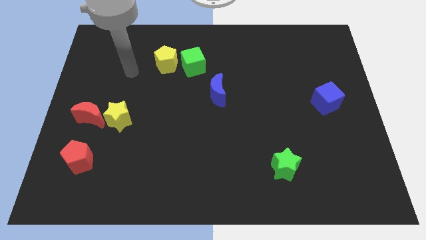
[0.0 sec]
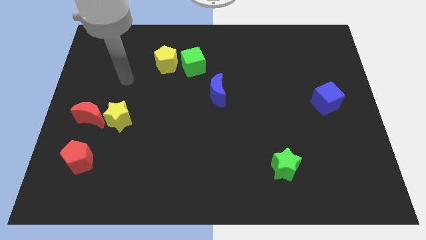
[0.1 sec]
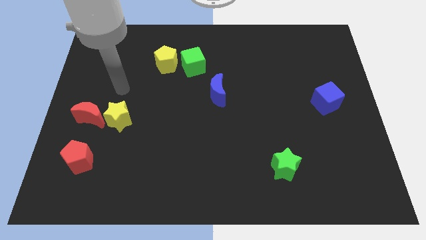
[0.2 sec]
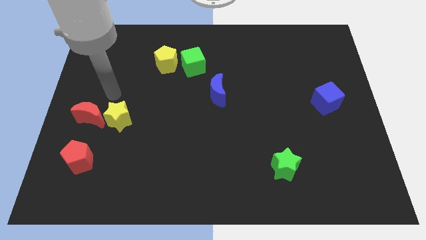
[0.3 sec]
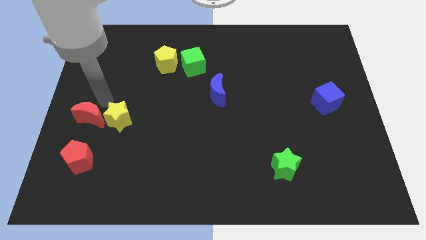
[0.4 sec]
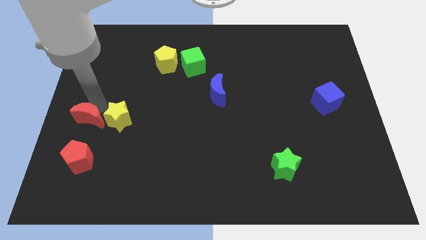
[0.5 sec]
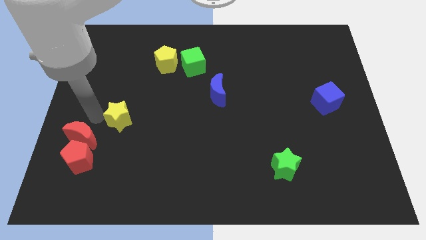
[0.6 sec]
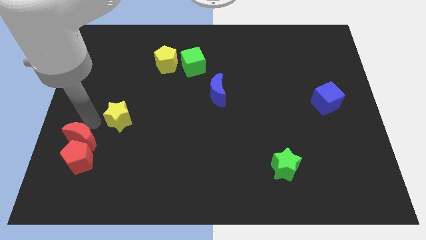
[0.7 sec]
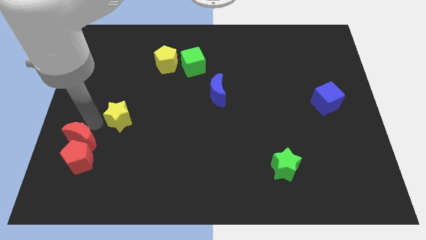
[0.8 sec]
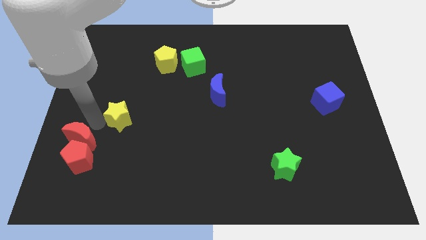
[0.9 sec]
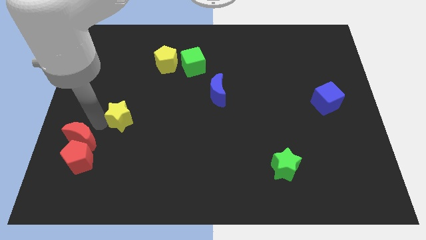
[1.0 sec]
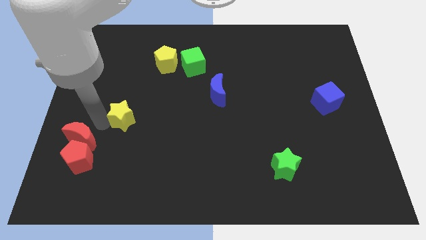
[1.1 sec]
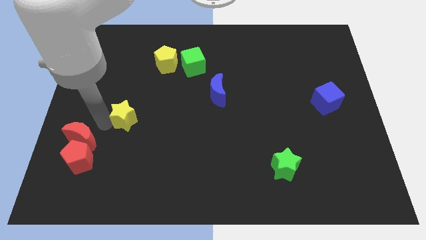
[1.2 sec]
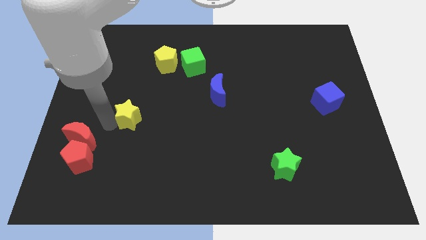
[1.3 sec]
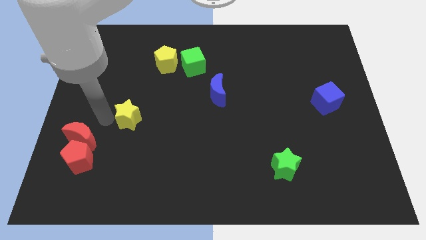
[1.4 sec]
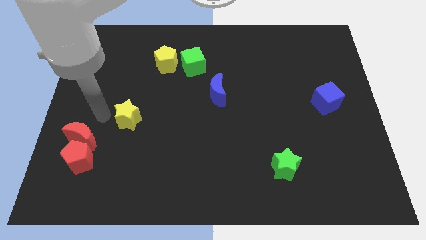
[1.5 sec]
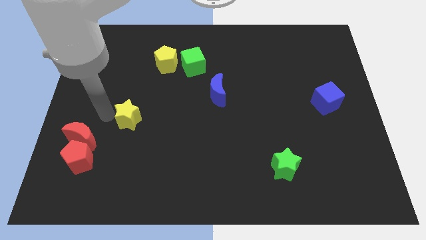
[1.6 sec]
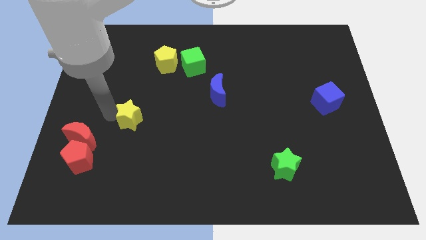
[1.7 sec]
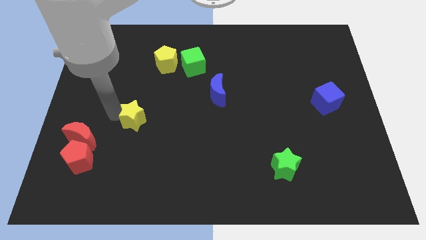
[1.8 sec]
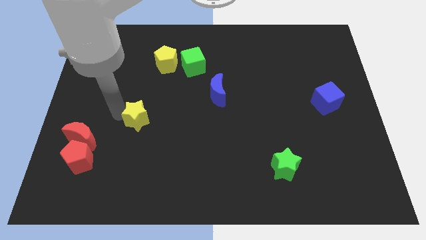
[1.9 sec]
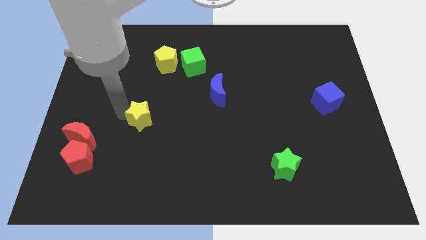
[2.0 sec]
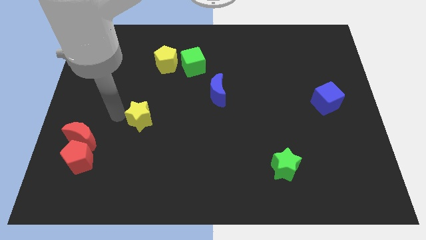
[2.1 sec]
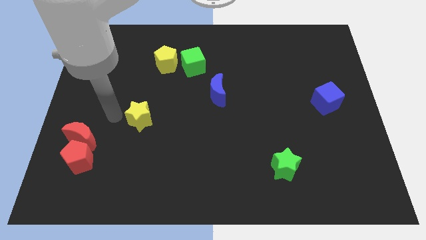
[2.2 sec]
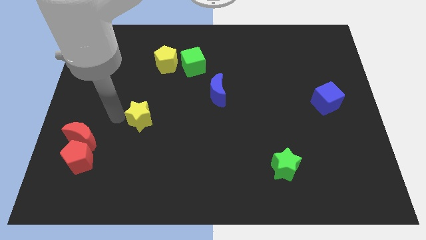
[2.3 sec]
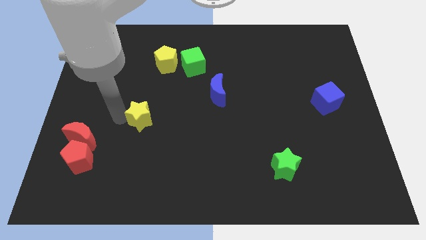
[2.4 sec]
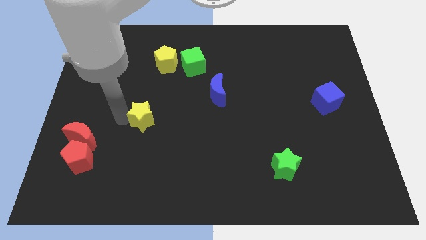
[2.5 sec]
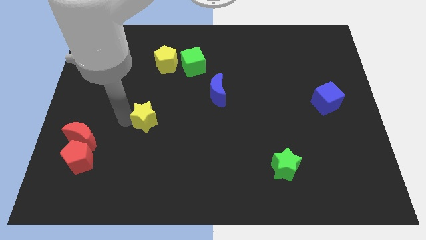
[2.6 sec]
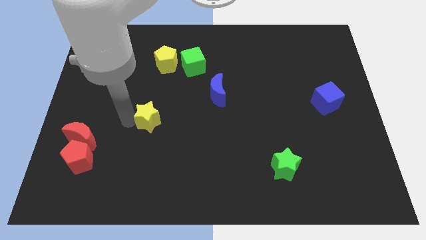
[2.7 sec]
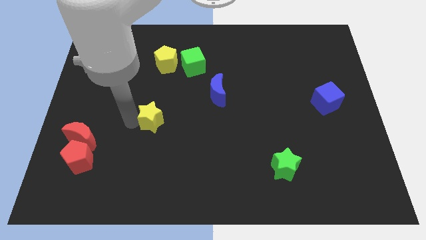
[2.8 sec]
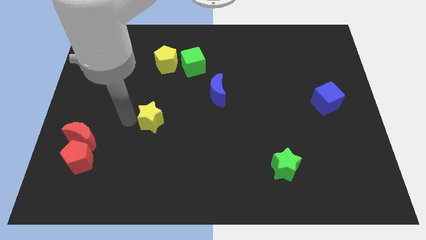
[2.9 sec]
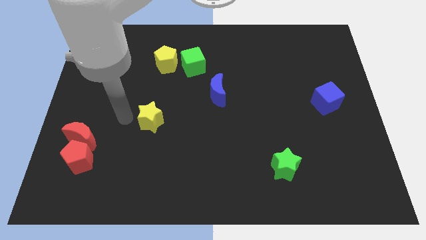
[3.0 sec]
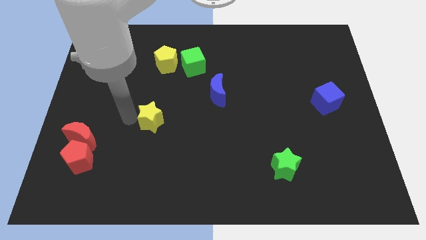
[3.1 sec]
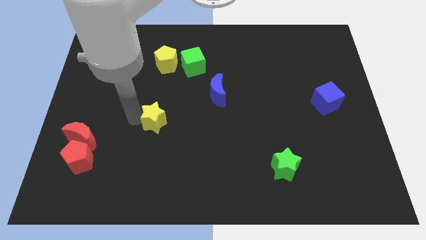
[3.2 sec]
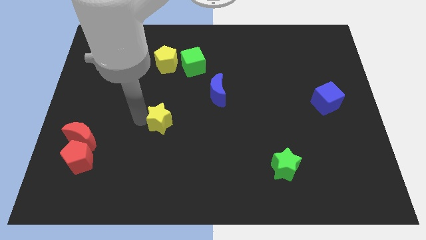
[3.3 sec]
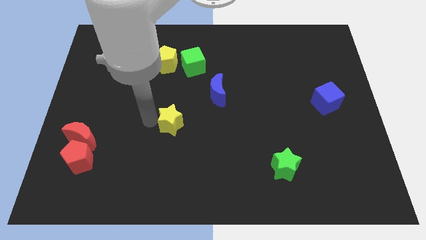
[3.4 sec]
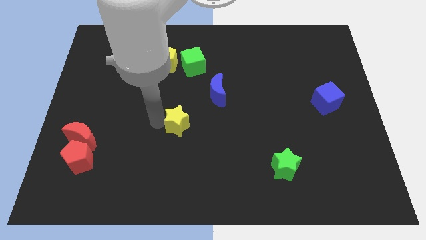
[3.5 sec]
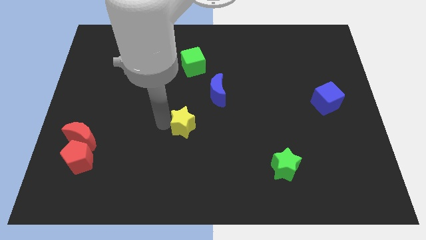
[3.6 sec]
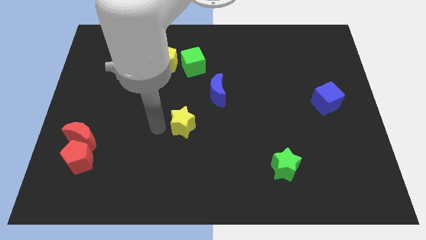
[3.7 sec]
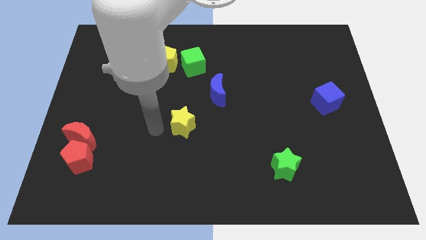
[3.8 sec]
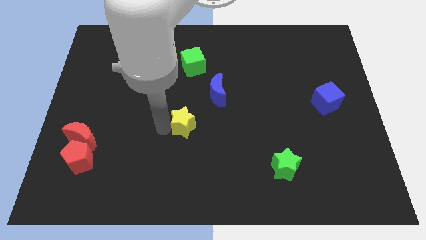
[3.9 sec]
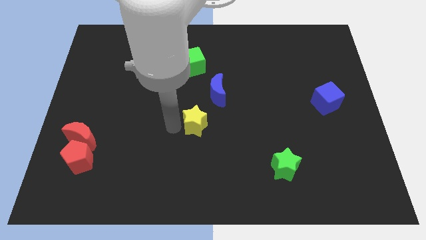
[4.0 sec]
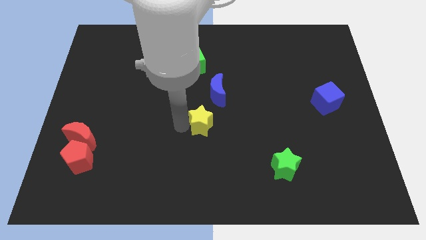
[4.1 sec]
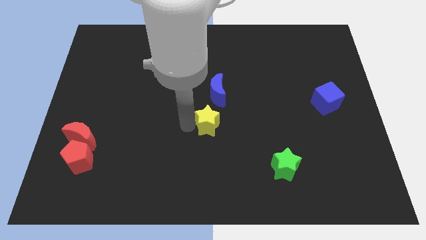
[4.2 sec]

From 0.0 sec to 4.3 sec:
push the yellow star right

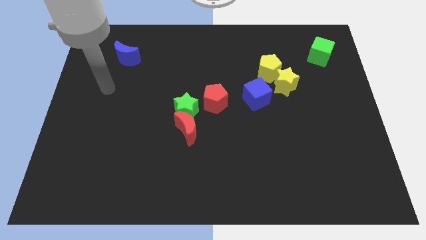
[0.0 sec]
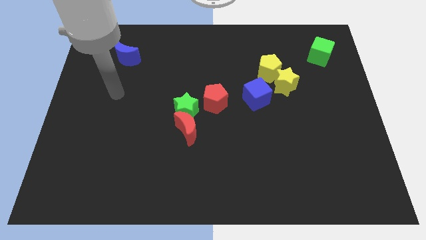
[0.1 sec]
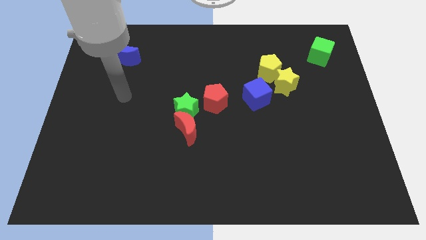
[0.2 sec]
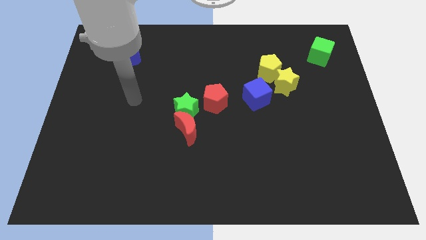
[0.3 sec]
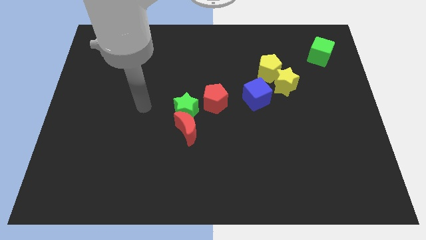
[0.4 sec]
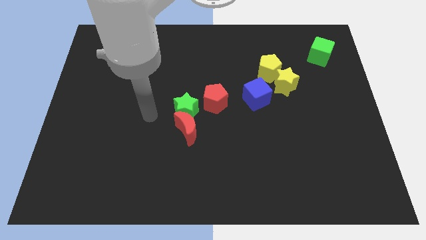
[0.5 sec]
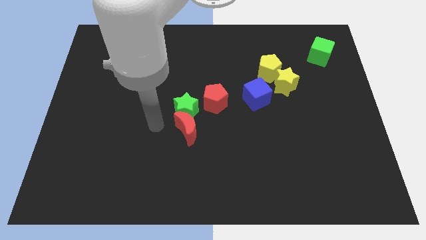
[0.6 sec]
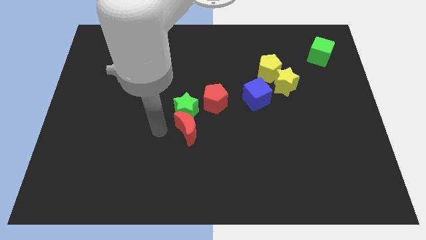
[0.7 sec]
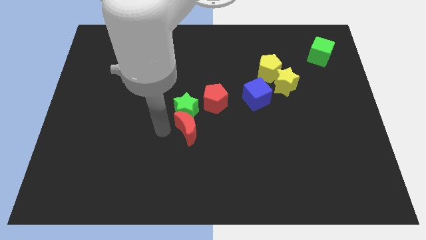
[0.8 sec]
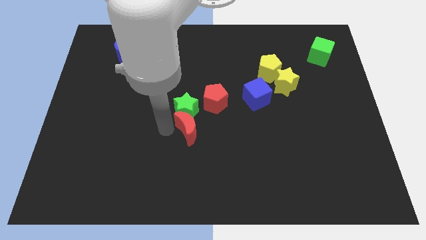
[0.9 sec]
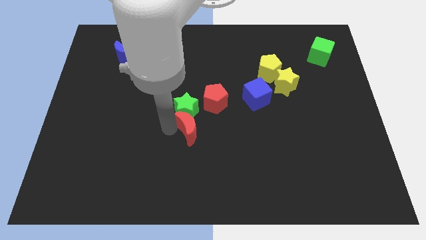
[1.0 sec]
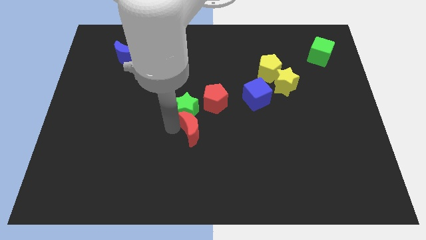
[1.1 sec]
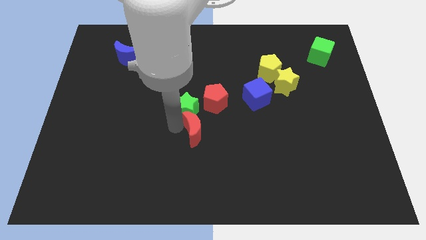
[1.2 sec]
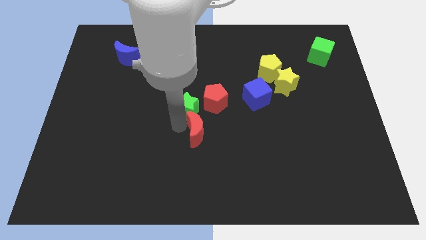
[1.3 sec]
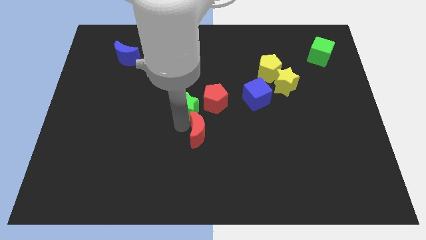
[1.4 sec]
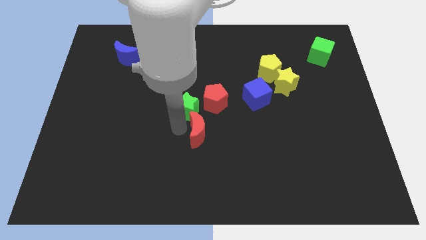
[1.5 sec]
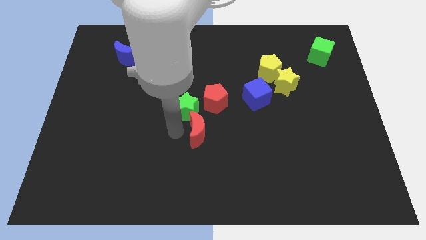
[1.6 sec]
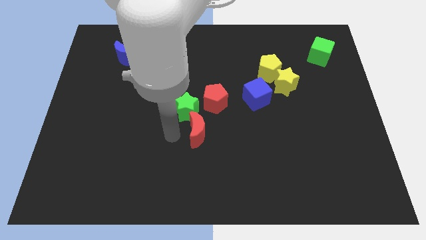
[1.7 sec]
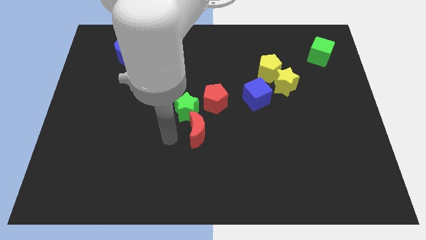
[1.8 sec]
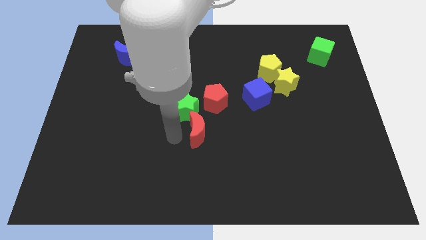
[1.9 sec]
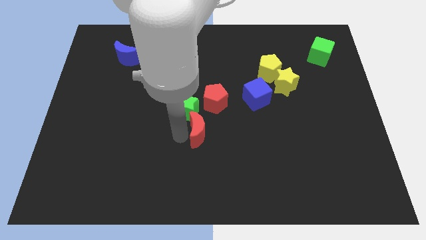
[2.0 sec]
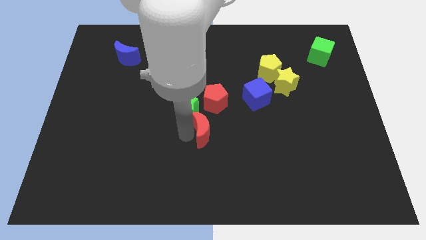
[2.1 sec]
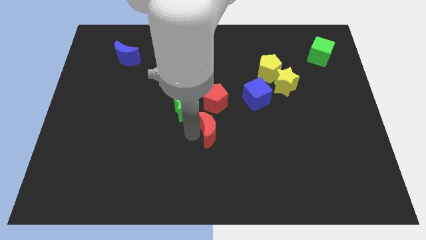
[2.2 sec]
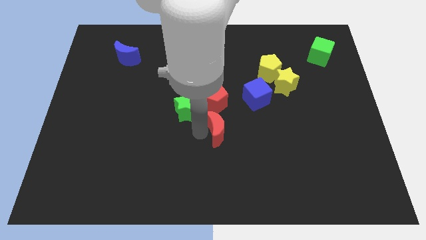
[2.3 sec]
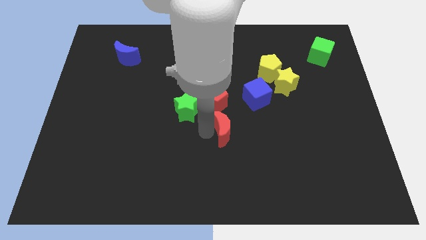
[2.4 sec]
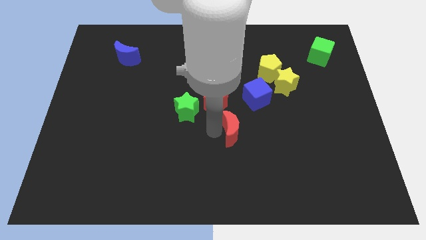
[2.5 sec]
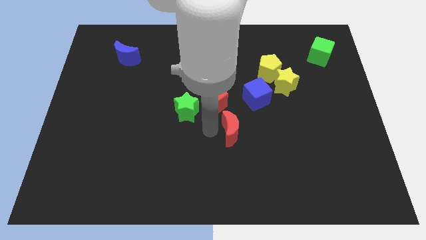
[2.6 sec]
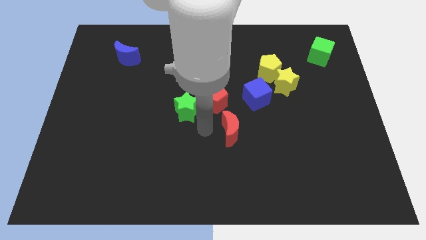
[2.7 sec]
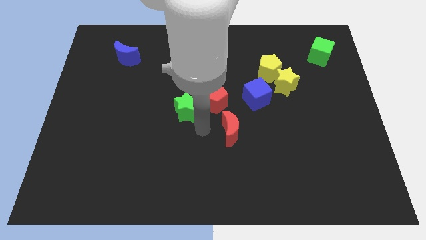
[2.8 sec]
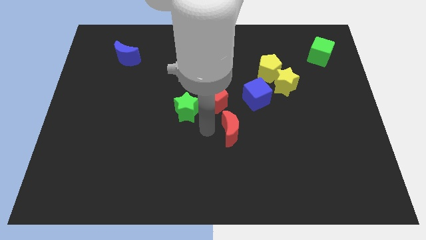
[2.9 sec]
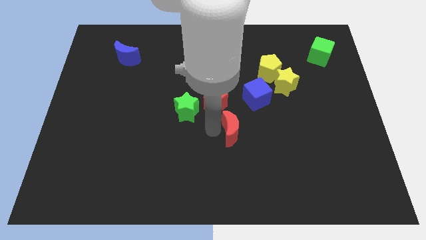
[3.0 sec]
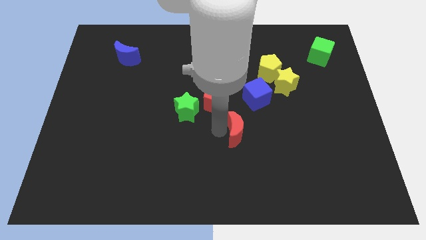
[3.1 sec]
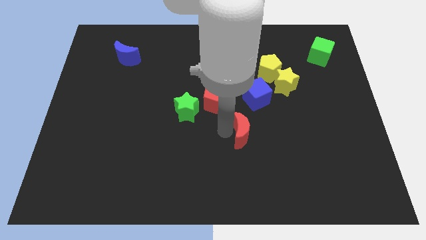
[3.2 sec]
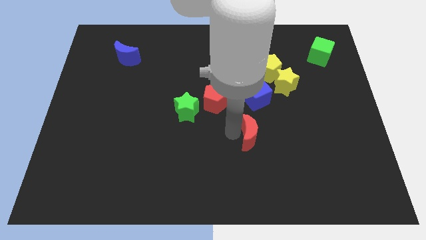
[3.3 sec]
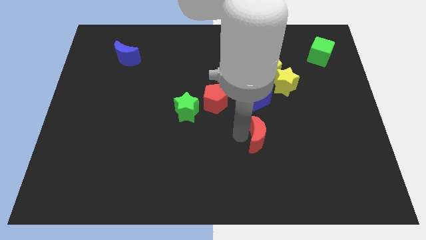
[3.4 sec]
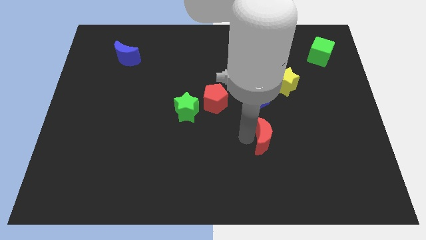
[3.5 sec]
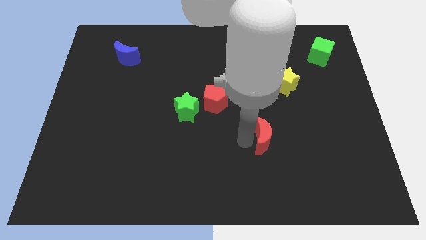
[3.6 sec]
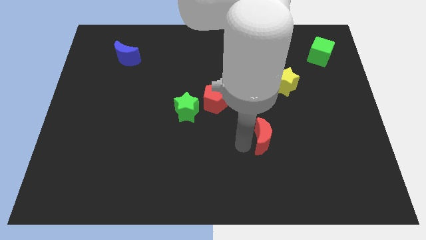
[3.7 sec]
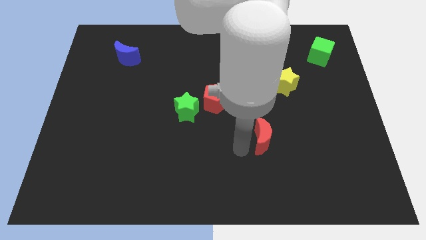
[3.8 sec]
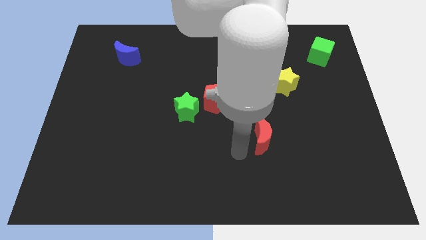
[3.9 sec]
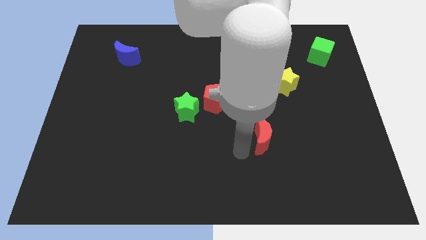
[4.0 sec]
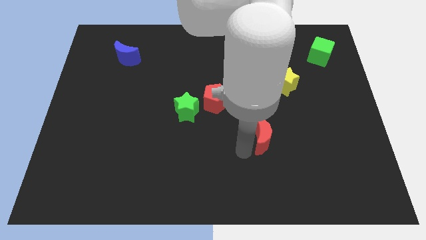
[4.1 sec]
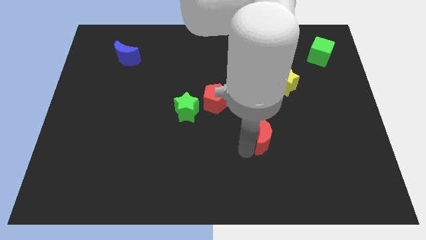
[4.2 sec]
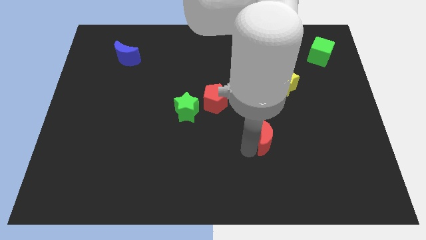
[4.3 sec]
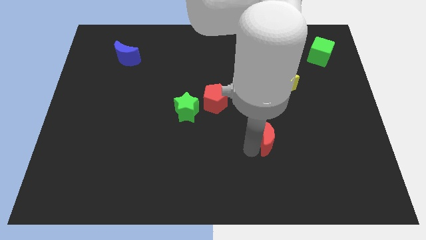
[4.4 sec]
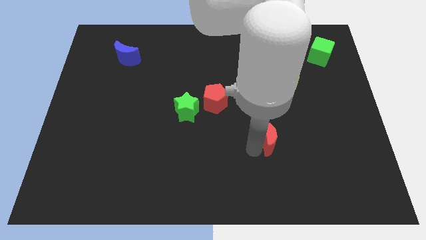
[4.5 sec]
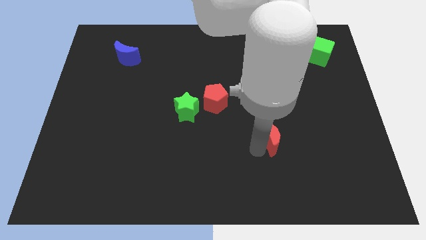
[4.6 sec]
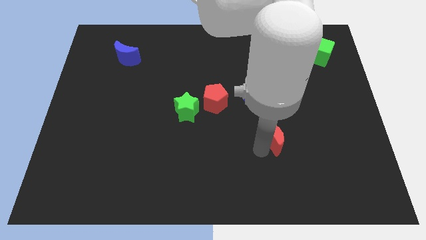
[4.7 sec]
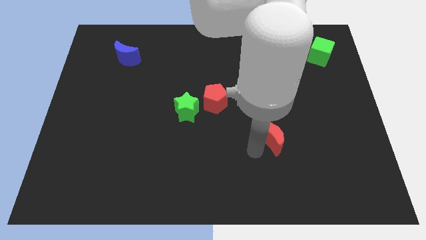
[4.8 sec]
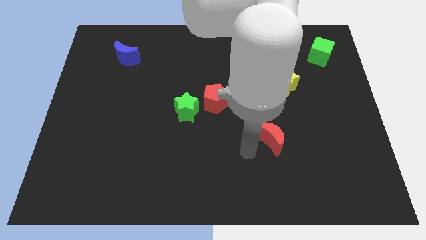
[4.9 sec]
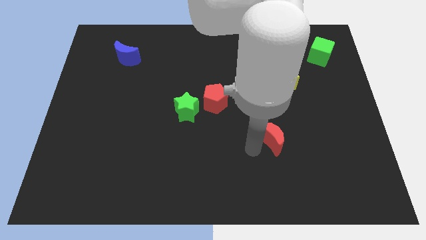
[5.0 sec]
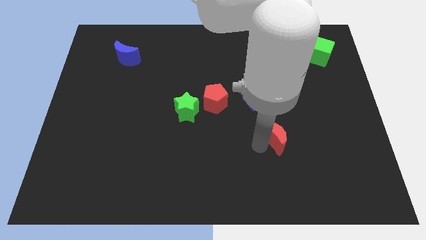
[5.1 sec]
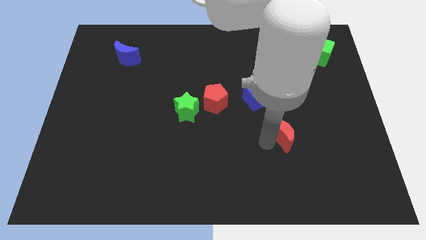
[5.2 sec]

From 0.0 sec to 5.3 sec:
slide the red moon to the right
